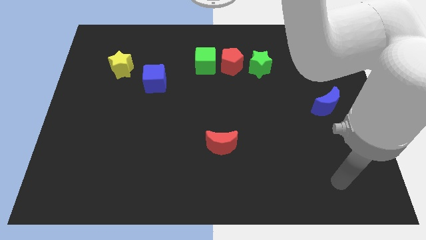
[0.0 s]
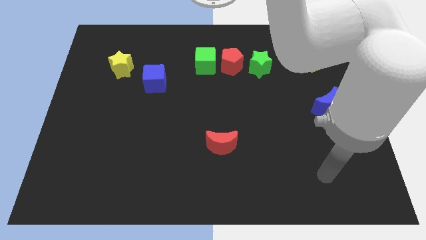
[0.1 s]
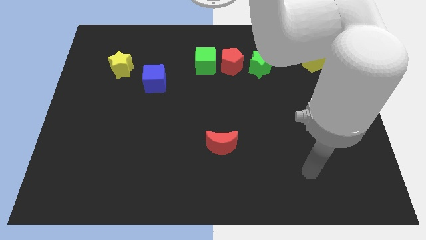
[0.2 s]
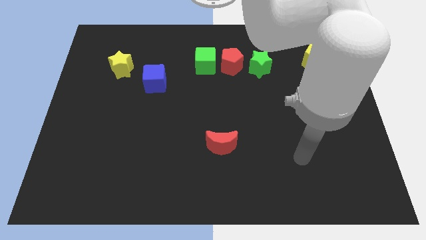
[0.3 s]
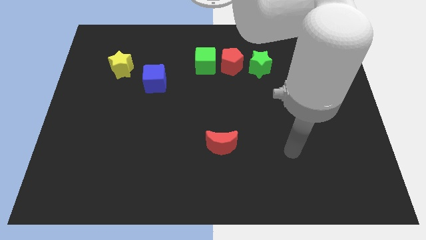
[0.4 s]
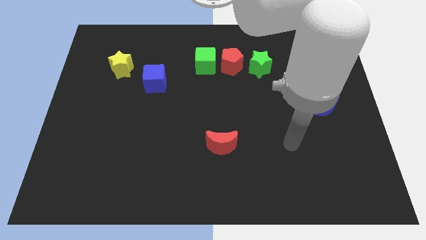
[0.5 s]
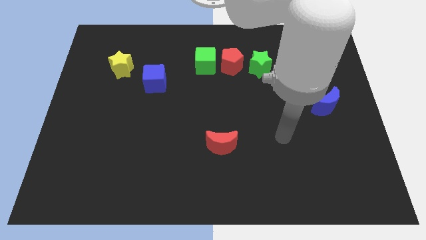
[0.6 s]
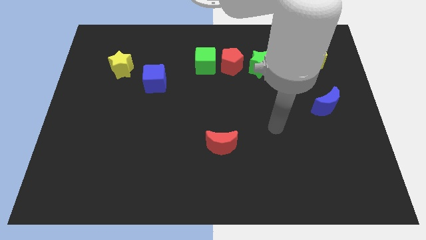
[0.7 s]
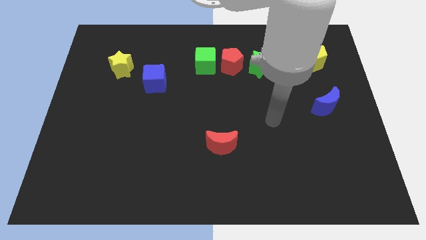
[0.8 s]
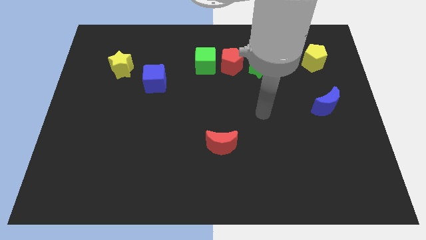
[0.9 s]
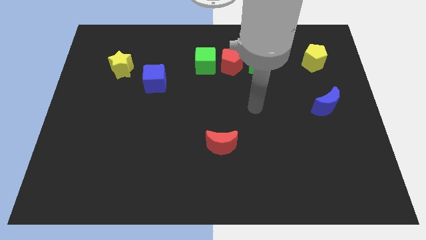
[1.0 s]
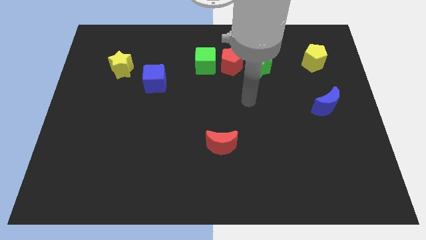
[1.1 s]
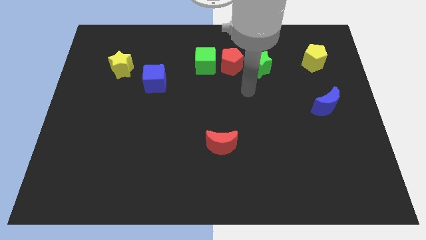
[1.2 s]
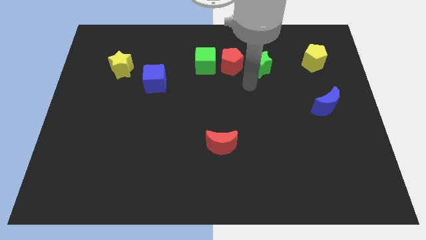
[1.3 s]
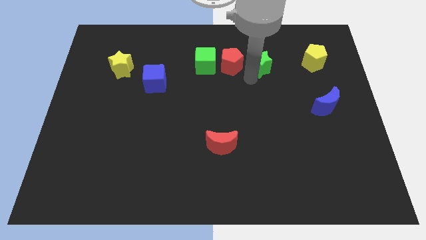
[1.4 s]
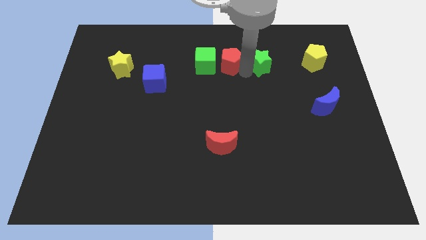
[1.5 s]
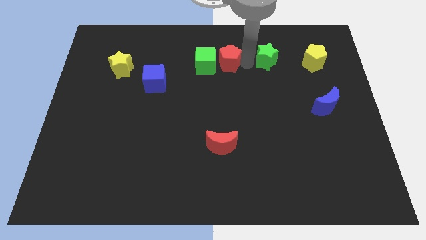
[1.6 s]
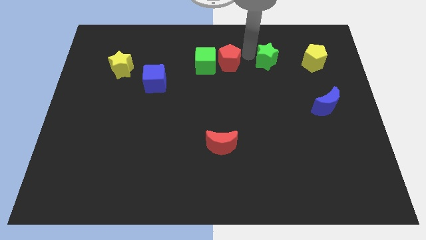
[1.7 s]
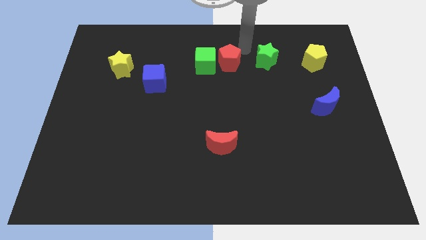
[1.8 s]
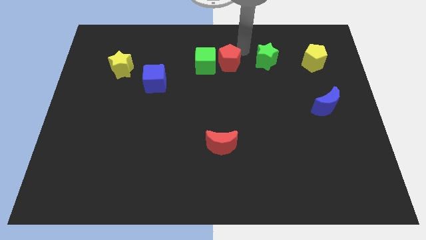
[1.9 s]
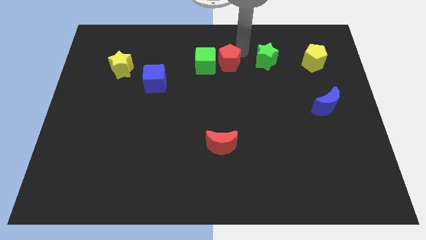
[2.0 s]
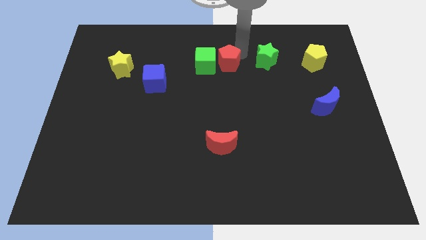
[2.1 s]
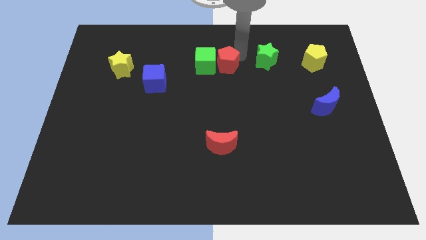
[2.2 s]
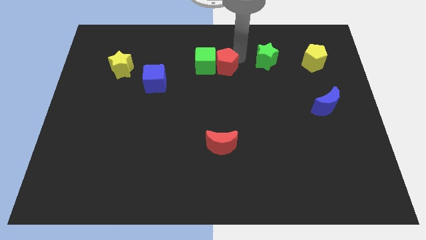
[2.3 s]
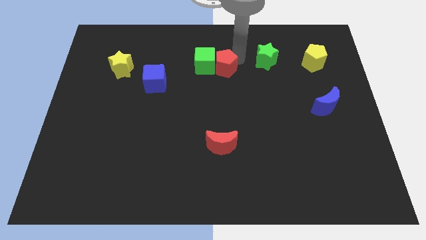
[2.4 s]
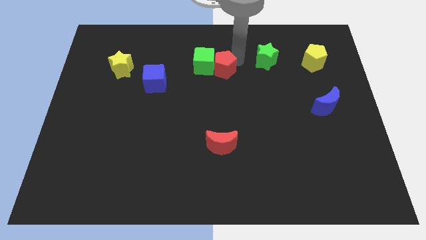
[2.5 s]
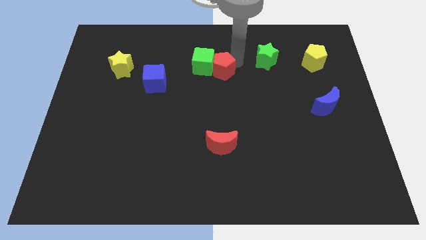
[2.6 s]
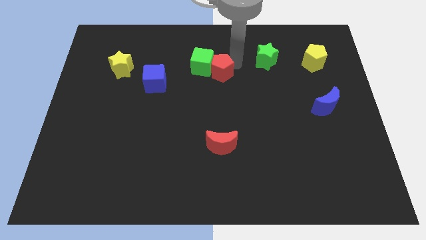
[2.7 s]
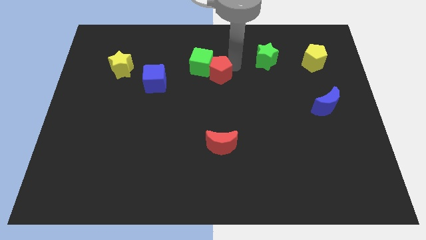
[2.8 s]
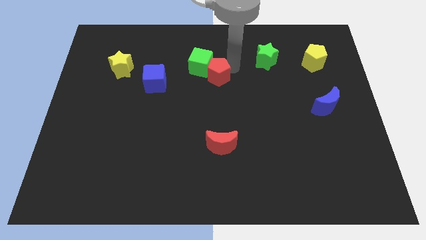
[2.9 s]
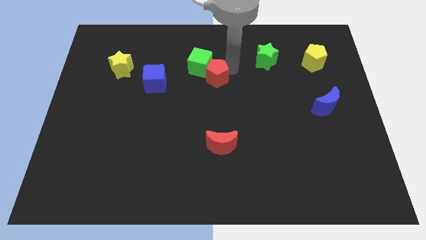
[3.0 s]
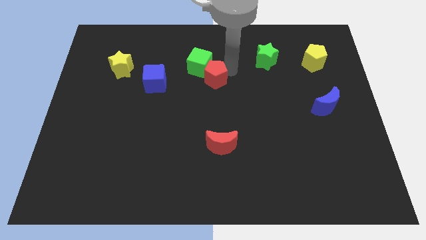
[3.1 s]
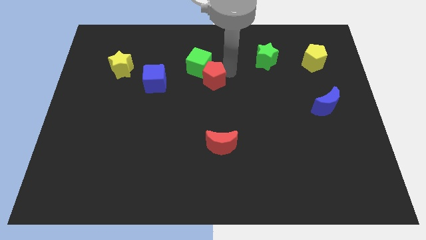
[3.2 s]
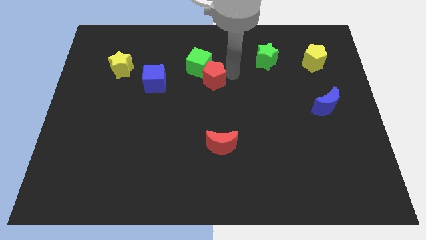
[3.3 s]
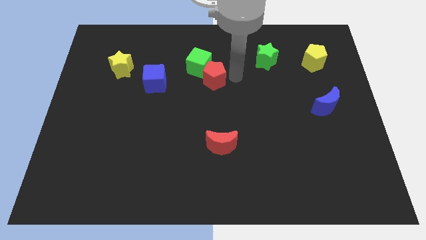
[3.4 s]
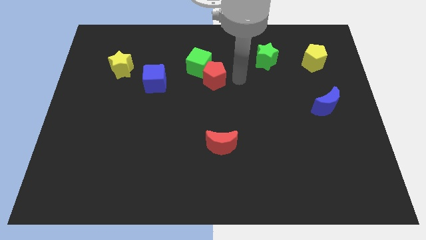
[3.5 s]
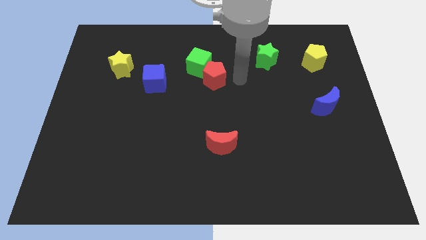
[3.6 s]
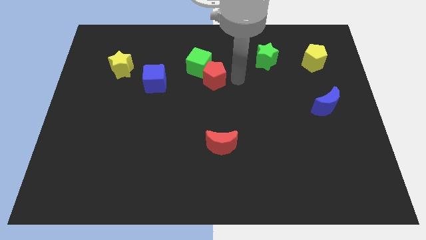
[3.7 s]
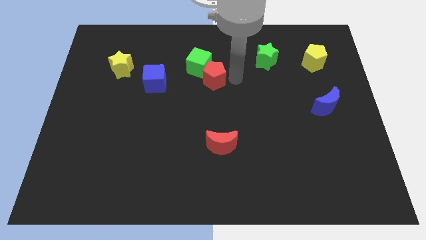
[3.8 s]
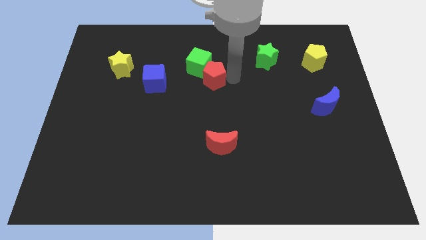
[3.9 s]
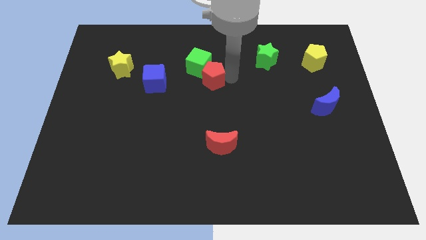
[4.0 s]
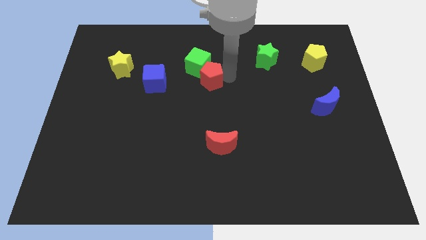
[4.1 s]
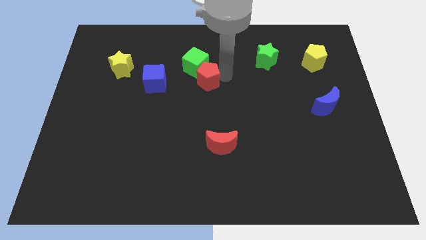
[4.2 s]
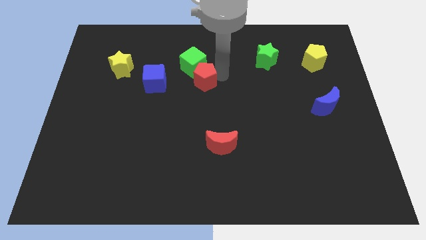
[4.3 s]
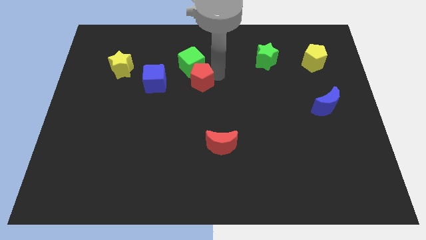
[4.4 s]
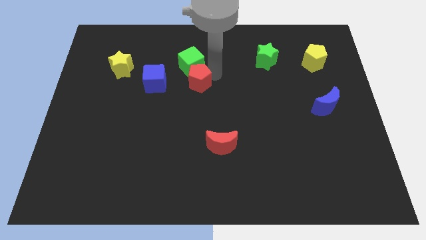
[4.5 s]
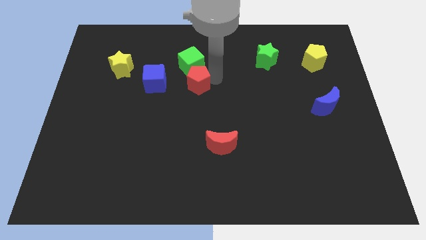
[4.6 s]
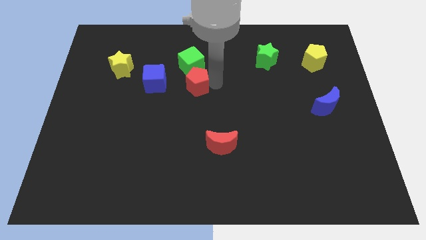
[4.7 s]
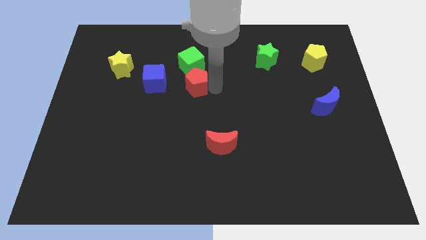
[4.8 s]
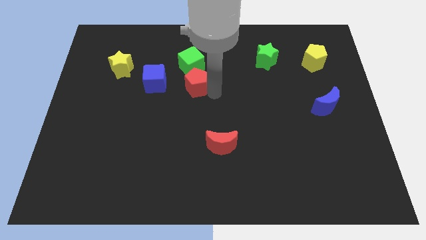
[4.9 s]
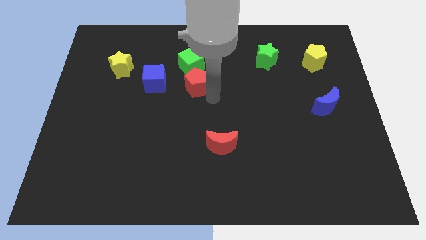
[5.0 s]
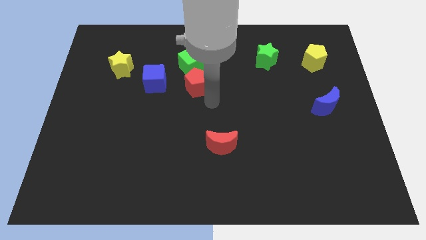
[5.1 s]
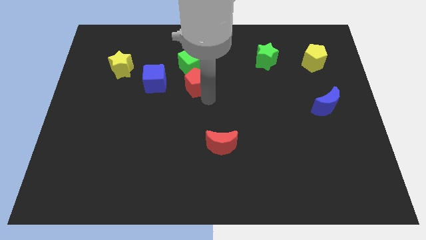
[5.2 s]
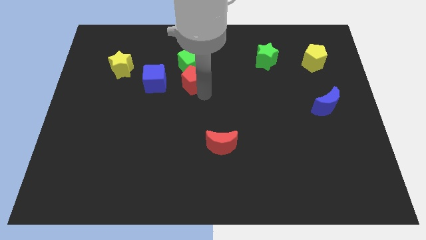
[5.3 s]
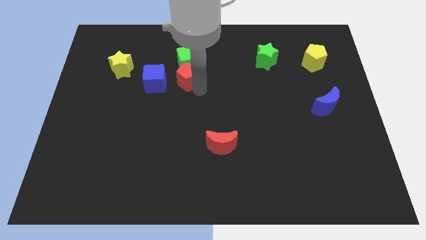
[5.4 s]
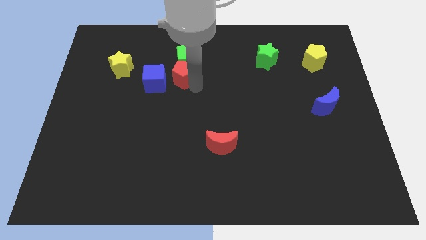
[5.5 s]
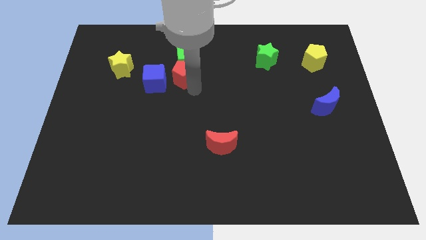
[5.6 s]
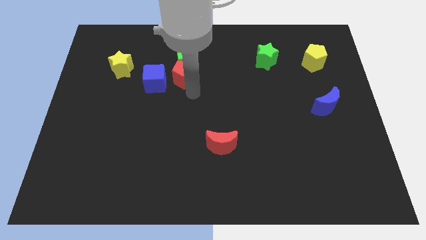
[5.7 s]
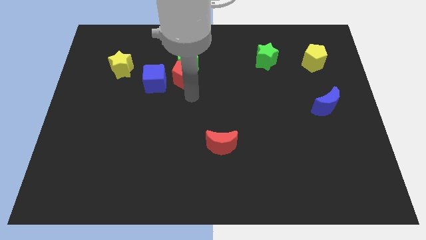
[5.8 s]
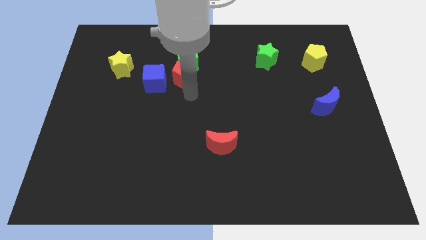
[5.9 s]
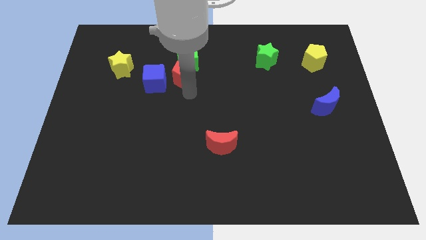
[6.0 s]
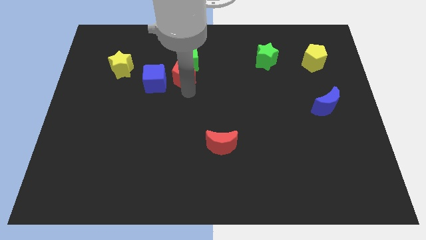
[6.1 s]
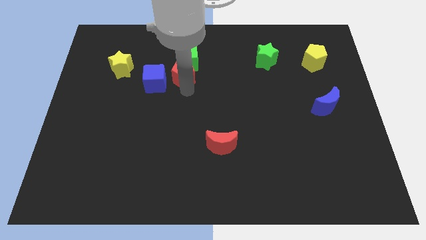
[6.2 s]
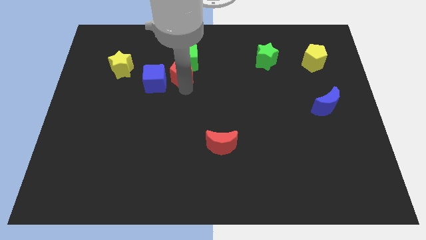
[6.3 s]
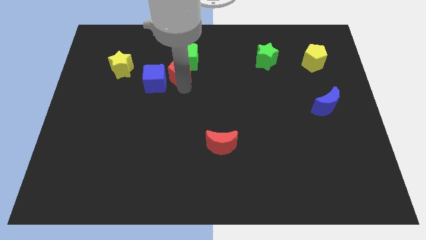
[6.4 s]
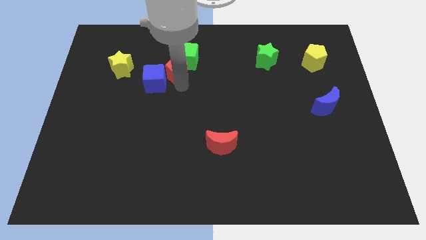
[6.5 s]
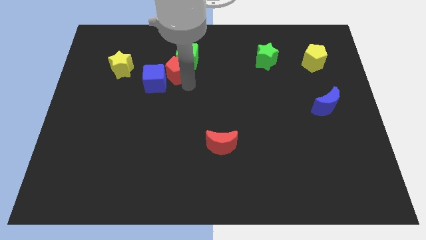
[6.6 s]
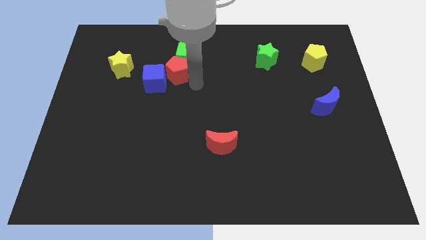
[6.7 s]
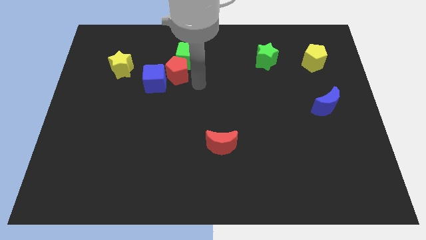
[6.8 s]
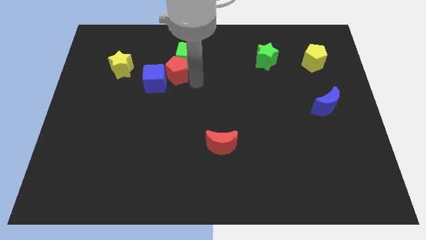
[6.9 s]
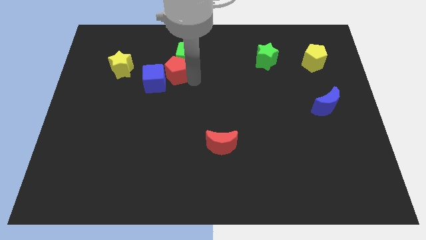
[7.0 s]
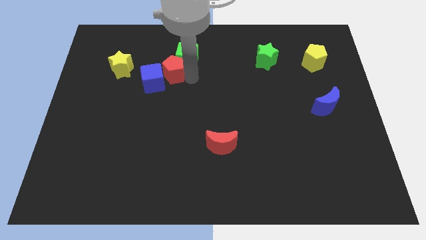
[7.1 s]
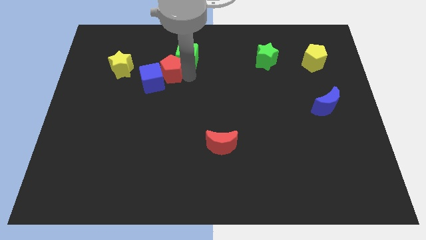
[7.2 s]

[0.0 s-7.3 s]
put the red pentagon to the left side of the green cube
